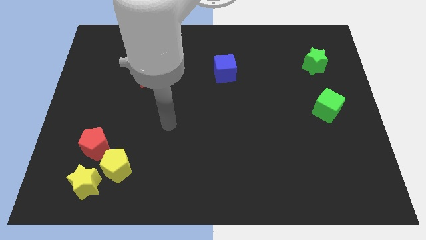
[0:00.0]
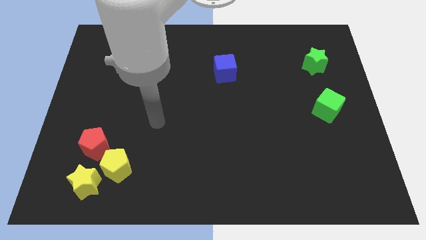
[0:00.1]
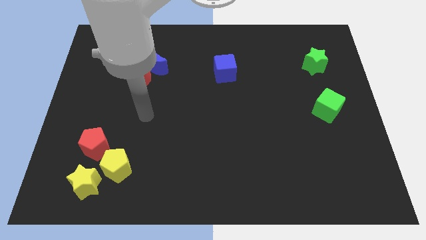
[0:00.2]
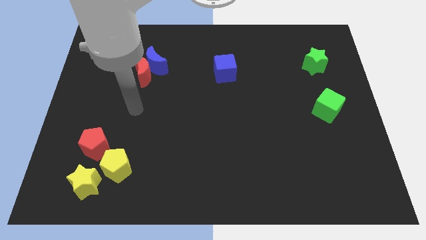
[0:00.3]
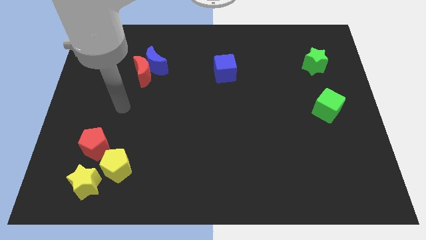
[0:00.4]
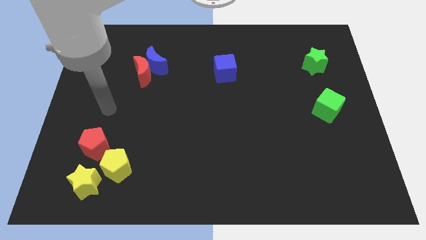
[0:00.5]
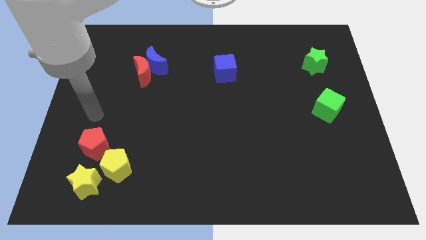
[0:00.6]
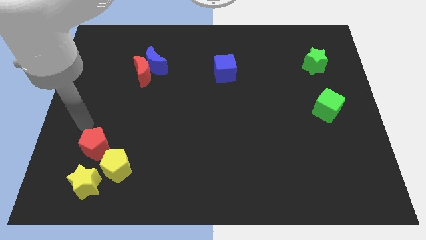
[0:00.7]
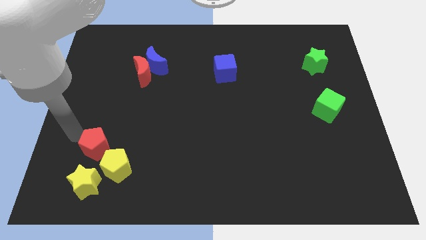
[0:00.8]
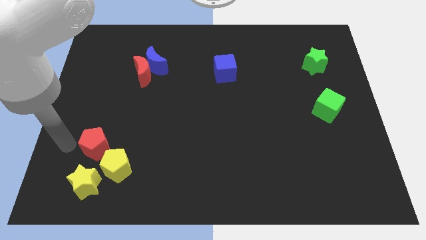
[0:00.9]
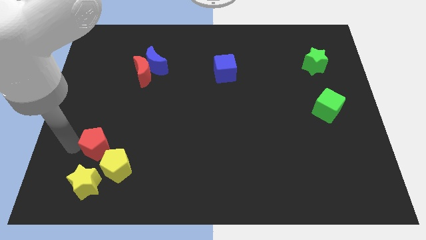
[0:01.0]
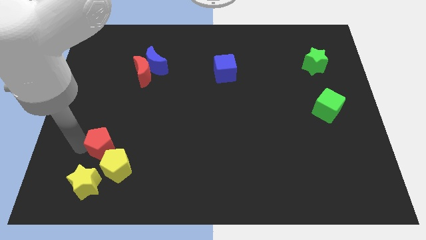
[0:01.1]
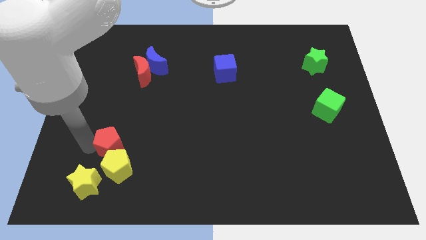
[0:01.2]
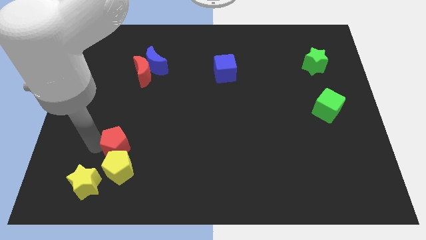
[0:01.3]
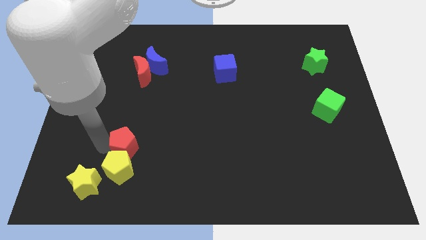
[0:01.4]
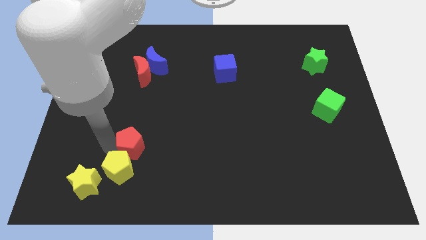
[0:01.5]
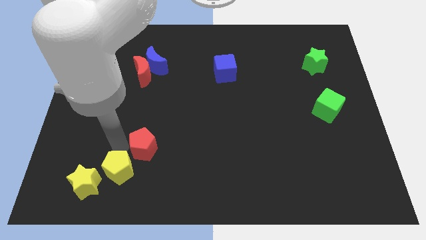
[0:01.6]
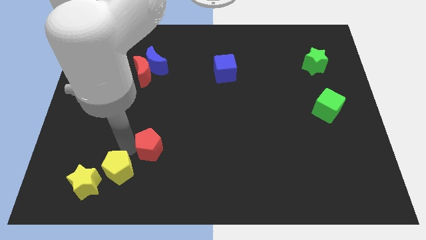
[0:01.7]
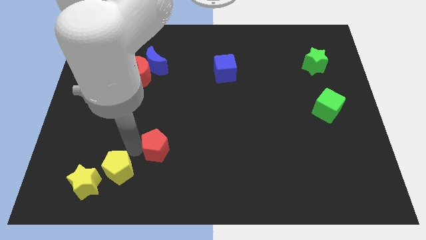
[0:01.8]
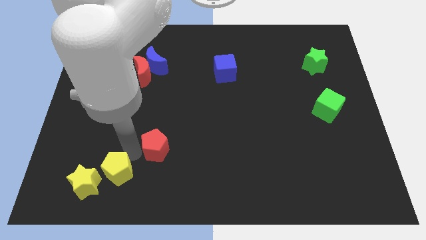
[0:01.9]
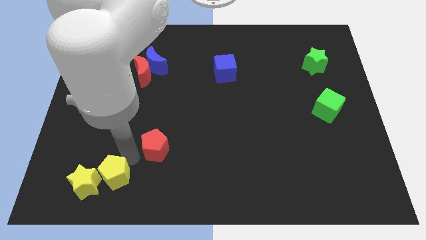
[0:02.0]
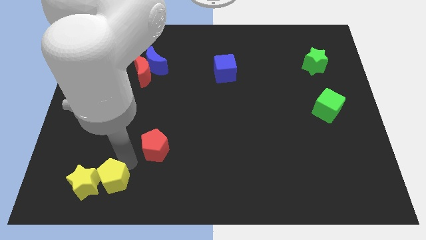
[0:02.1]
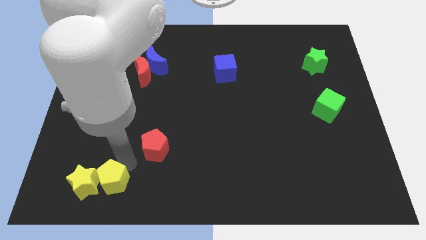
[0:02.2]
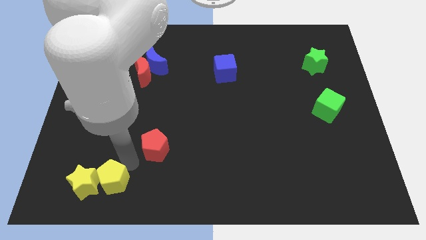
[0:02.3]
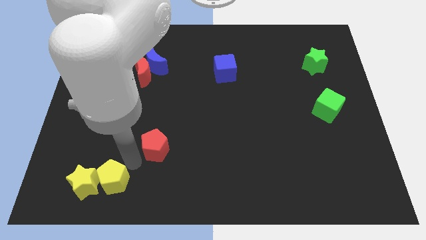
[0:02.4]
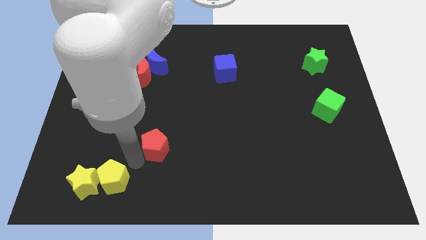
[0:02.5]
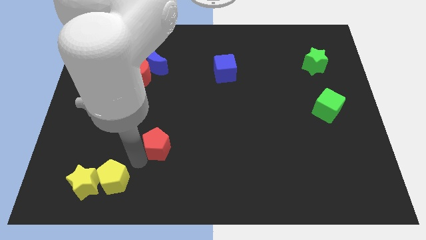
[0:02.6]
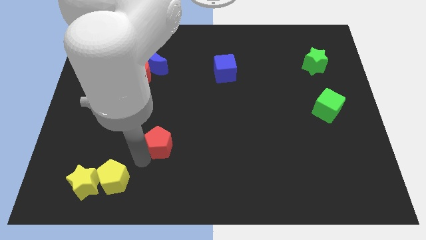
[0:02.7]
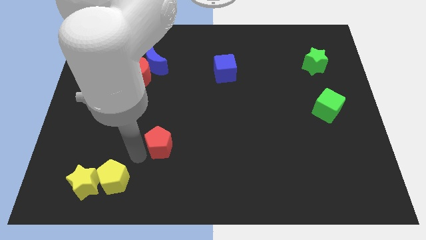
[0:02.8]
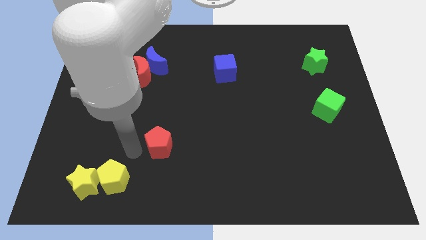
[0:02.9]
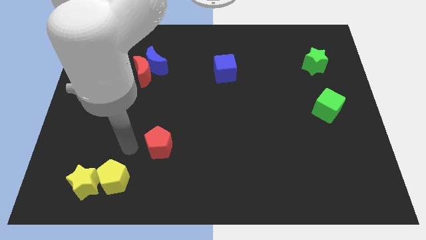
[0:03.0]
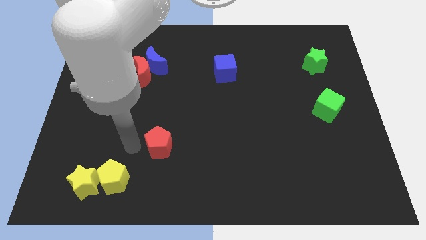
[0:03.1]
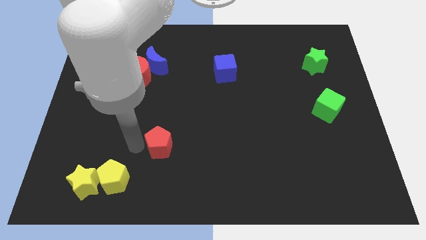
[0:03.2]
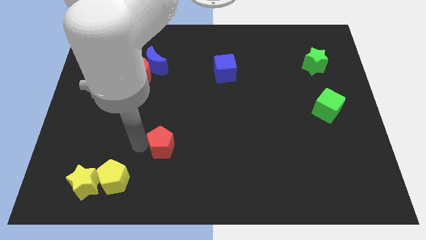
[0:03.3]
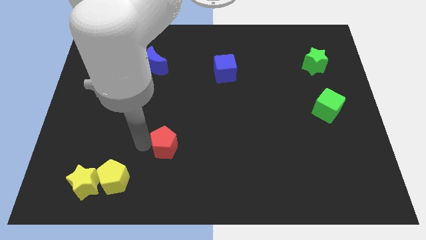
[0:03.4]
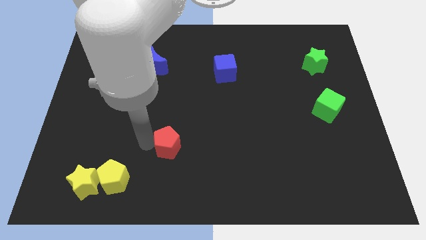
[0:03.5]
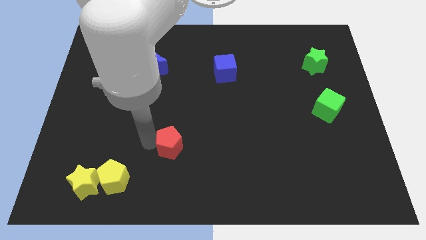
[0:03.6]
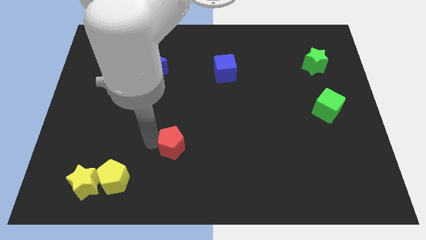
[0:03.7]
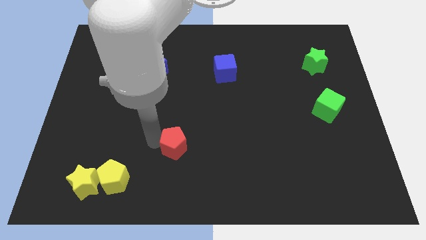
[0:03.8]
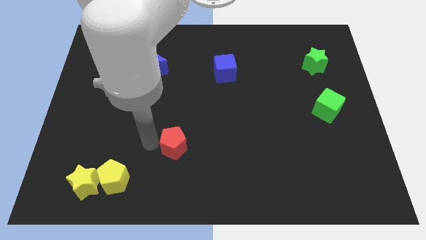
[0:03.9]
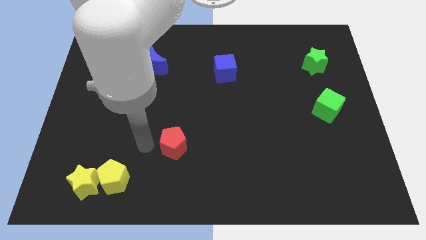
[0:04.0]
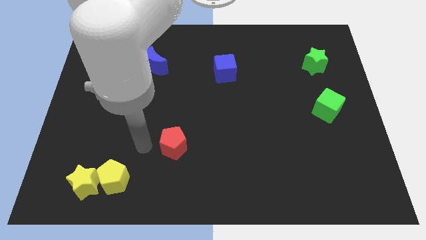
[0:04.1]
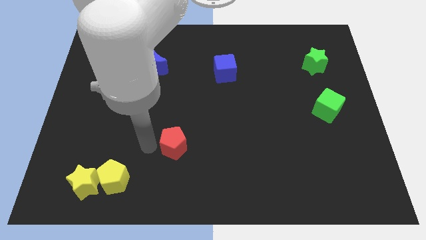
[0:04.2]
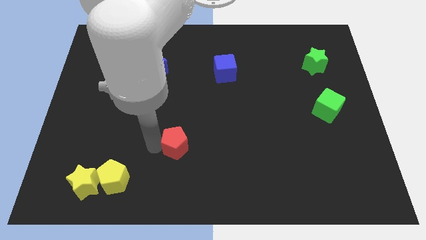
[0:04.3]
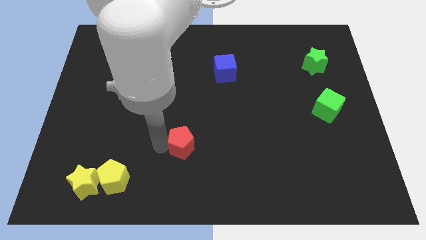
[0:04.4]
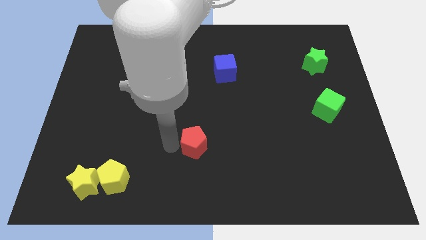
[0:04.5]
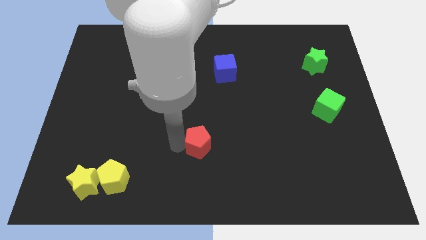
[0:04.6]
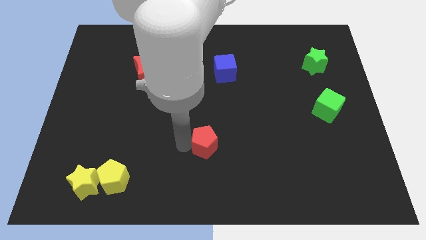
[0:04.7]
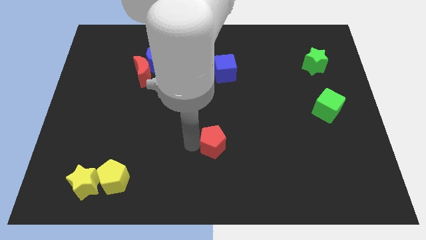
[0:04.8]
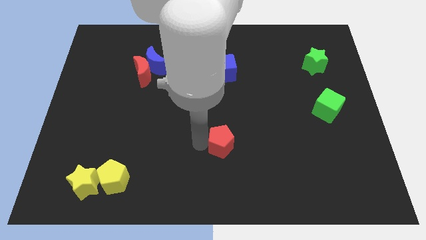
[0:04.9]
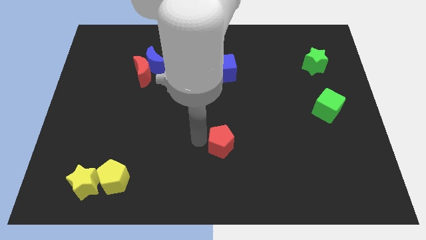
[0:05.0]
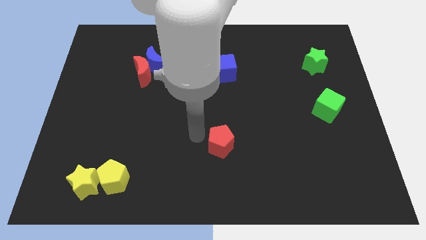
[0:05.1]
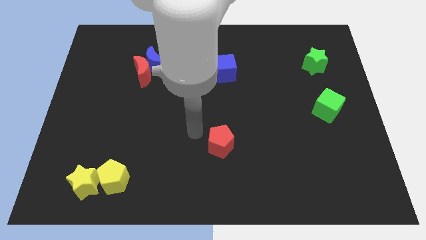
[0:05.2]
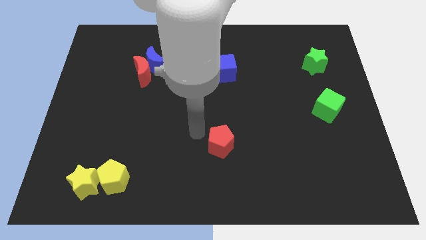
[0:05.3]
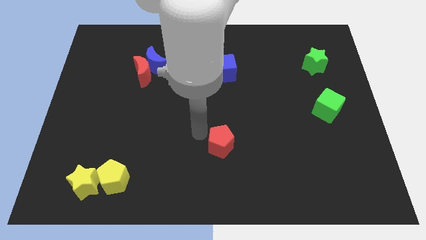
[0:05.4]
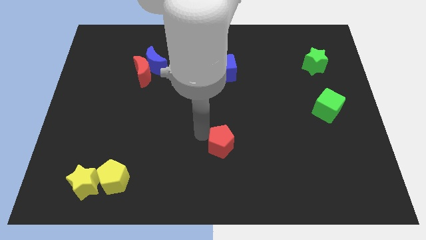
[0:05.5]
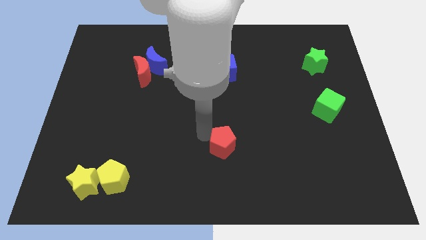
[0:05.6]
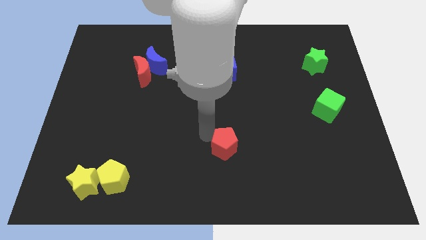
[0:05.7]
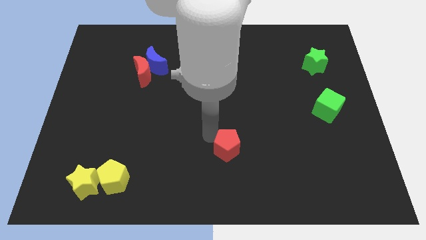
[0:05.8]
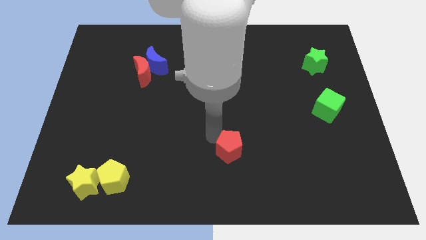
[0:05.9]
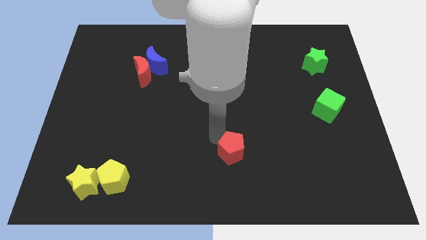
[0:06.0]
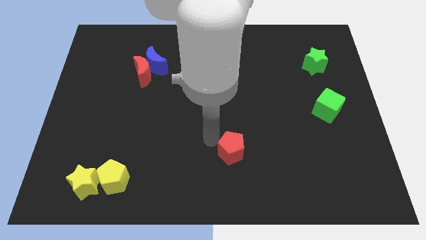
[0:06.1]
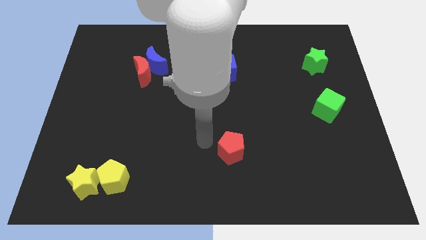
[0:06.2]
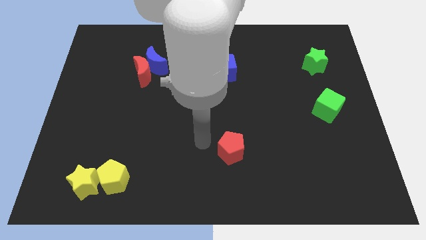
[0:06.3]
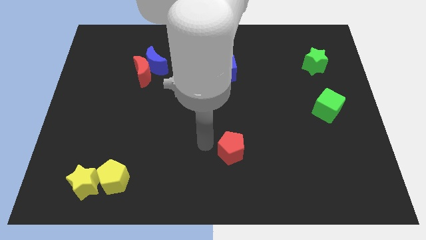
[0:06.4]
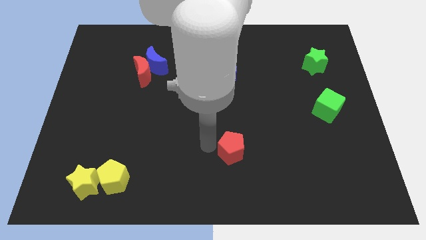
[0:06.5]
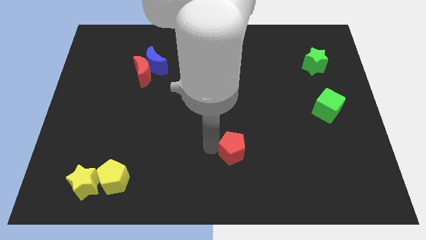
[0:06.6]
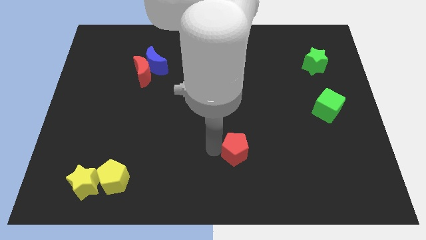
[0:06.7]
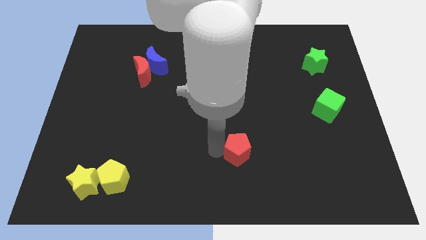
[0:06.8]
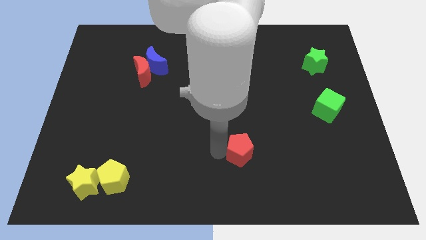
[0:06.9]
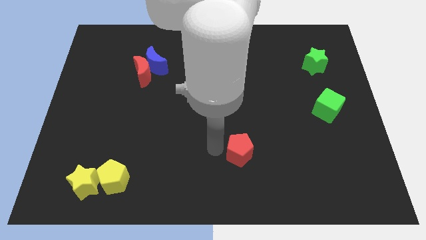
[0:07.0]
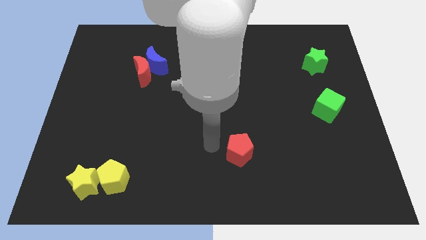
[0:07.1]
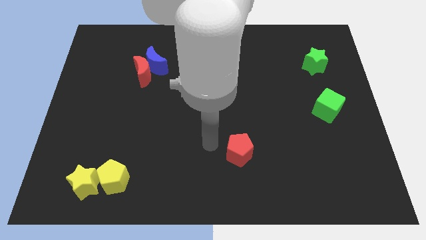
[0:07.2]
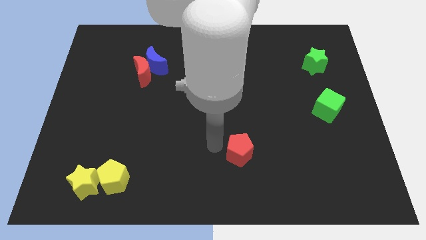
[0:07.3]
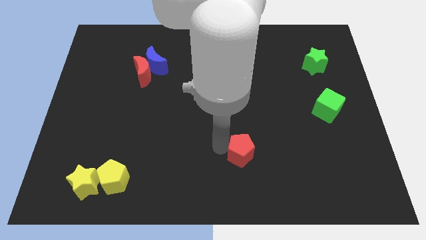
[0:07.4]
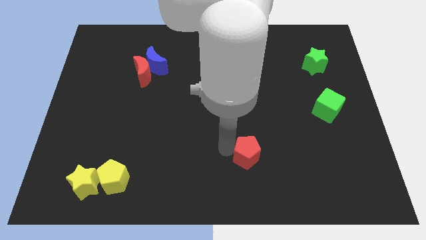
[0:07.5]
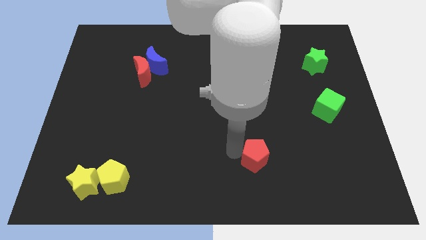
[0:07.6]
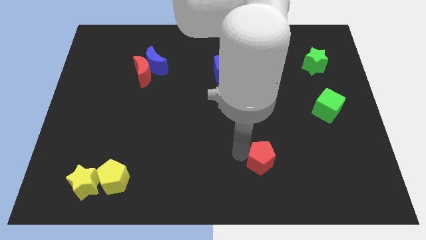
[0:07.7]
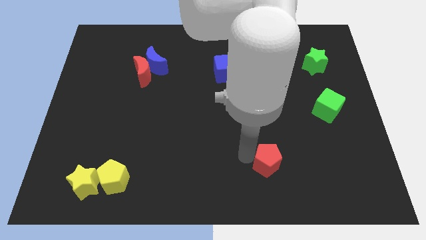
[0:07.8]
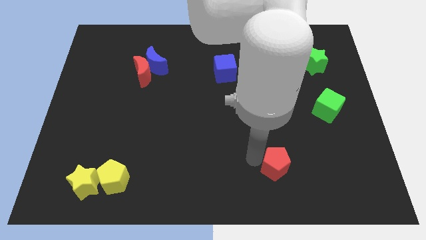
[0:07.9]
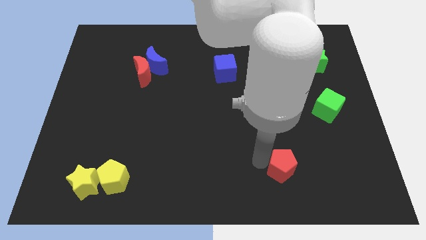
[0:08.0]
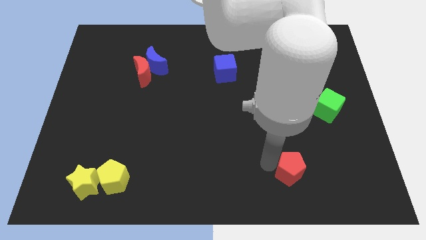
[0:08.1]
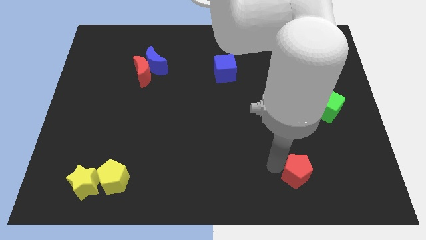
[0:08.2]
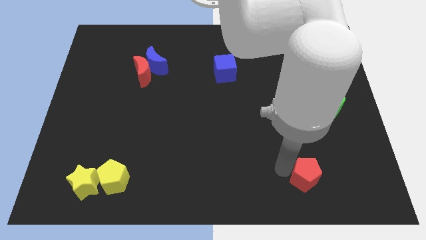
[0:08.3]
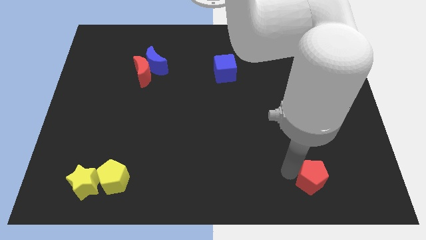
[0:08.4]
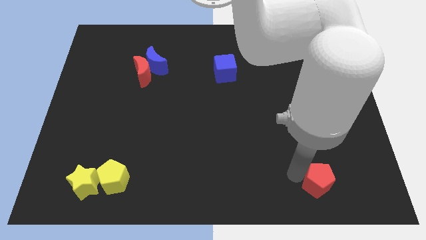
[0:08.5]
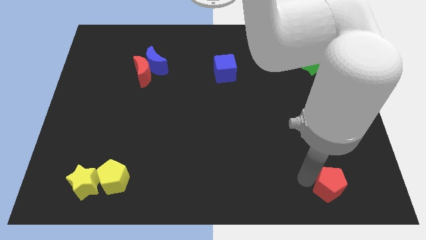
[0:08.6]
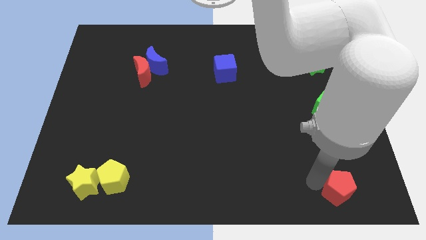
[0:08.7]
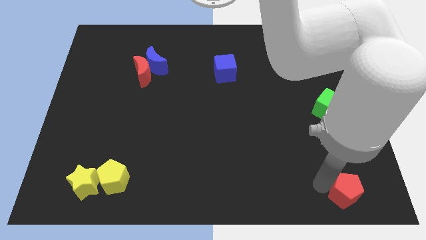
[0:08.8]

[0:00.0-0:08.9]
move the red pentagon to the bottom right
